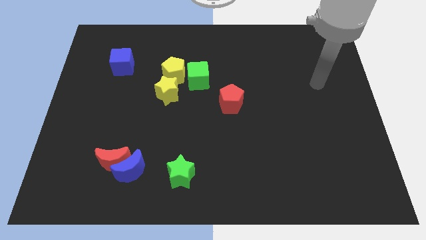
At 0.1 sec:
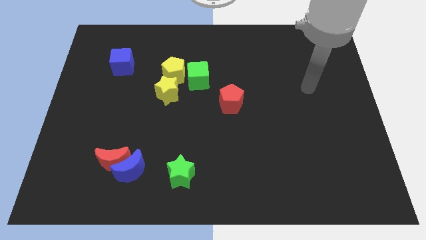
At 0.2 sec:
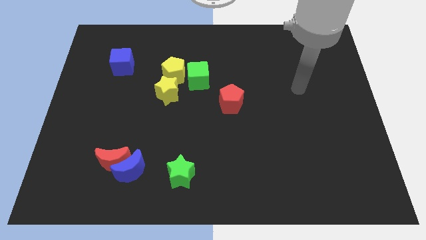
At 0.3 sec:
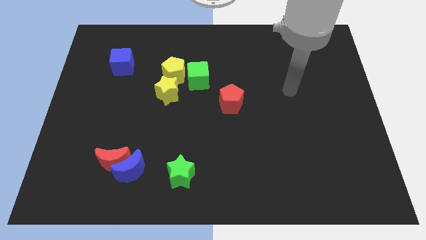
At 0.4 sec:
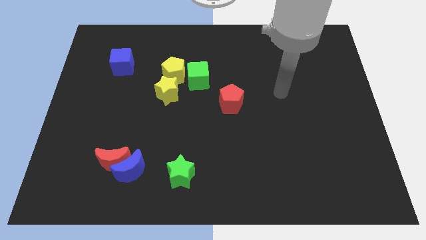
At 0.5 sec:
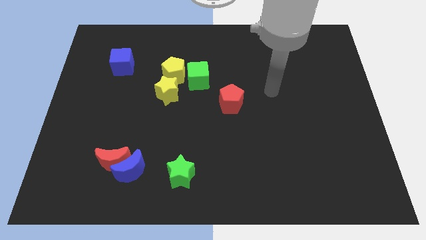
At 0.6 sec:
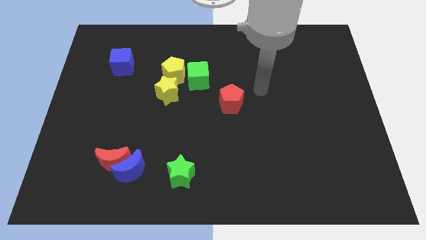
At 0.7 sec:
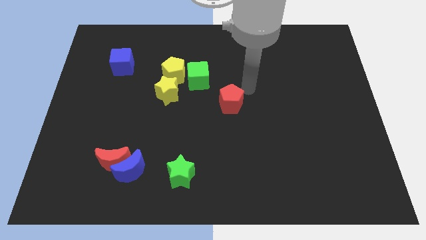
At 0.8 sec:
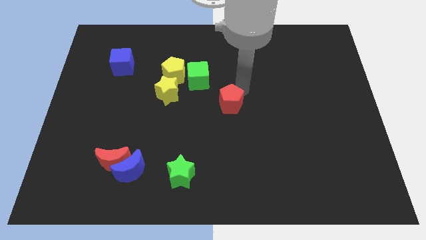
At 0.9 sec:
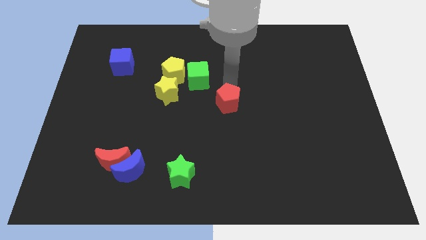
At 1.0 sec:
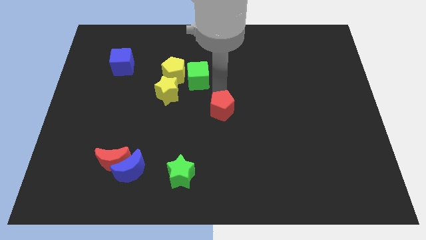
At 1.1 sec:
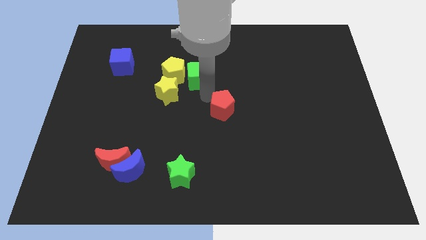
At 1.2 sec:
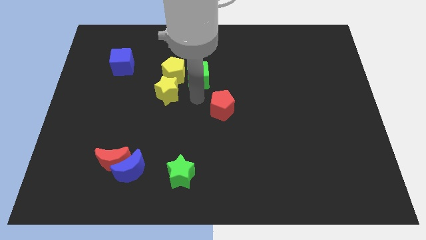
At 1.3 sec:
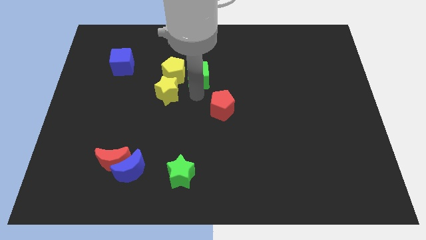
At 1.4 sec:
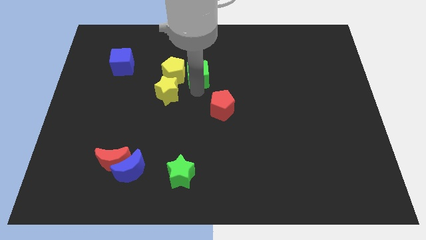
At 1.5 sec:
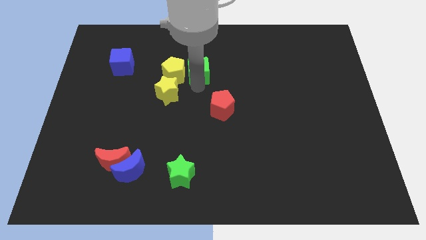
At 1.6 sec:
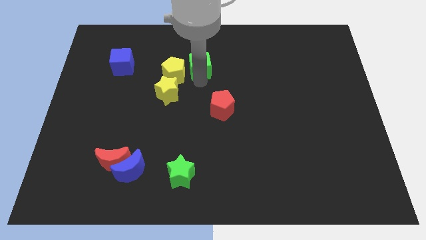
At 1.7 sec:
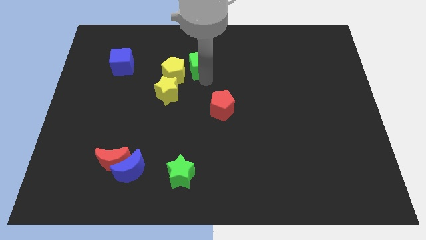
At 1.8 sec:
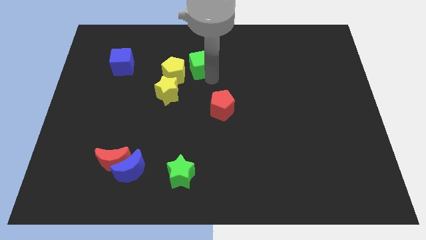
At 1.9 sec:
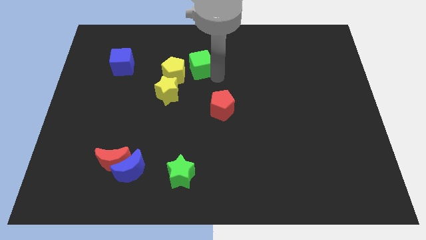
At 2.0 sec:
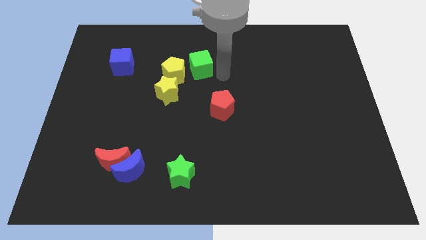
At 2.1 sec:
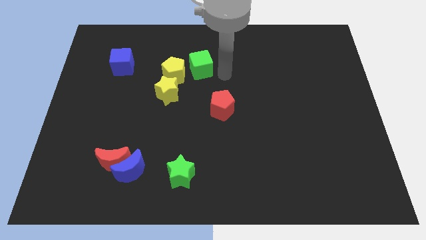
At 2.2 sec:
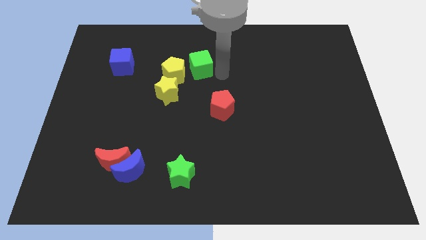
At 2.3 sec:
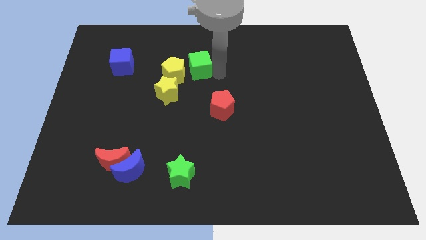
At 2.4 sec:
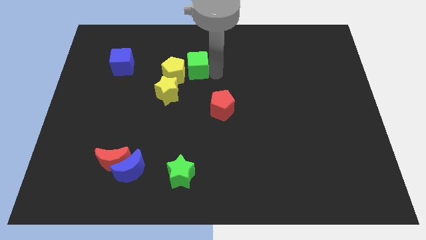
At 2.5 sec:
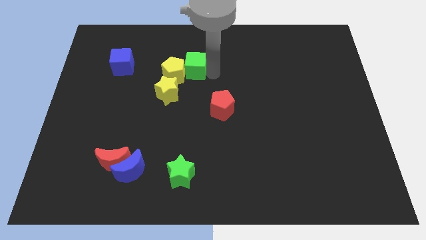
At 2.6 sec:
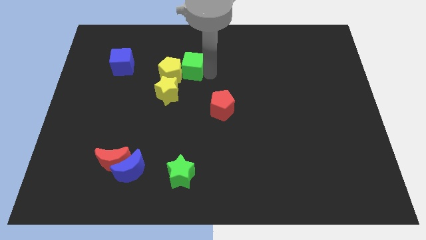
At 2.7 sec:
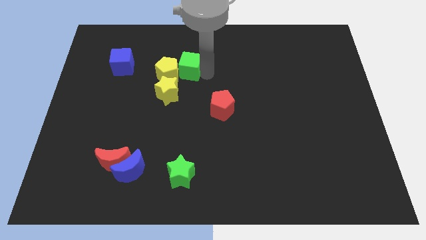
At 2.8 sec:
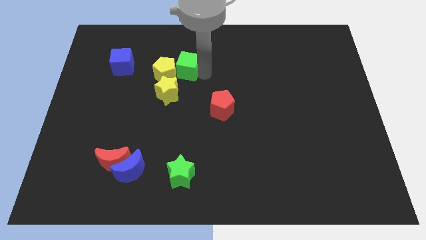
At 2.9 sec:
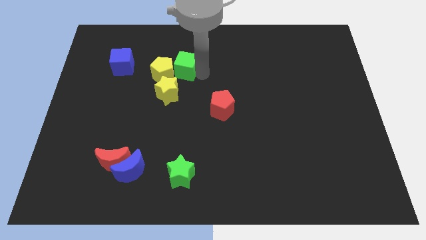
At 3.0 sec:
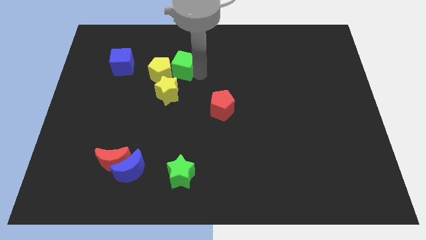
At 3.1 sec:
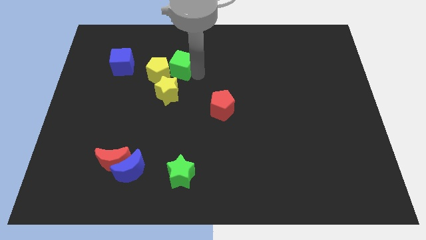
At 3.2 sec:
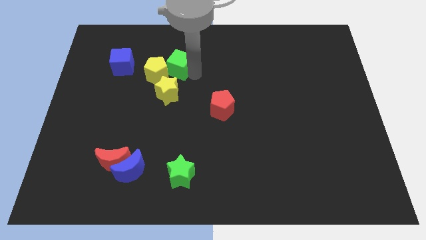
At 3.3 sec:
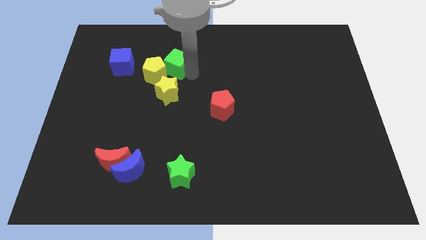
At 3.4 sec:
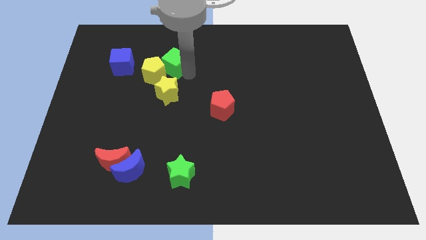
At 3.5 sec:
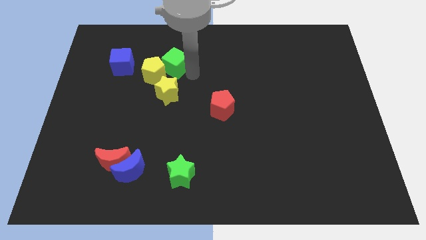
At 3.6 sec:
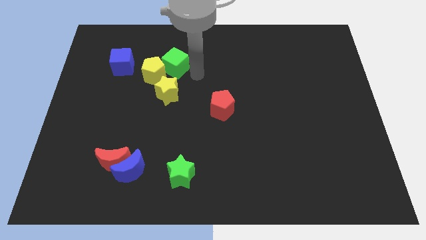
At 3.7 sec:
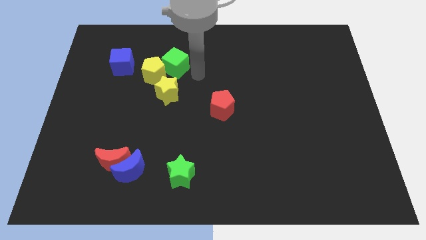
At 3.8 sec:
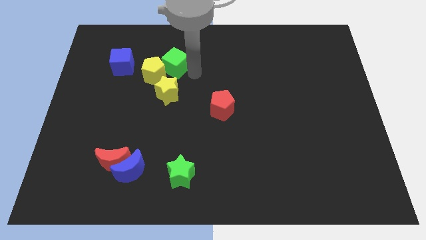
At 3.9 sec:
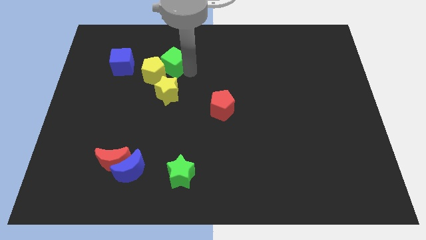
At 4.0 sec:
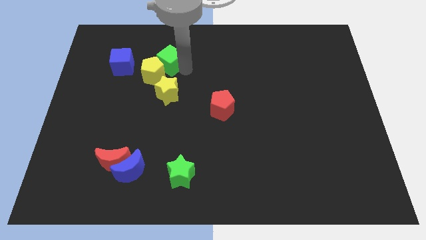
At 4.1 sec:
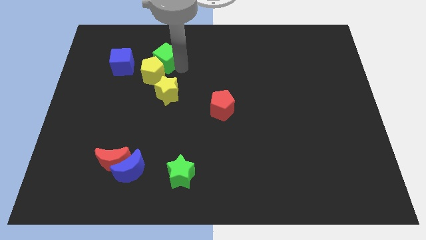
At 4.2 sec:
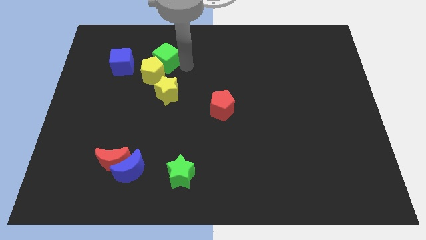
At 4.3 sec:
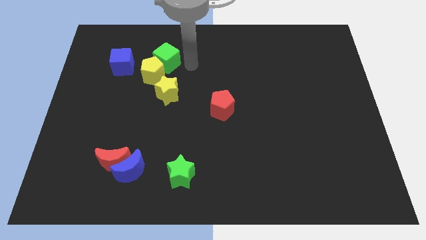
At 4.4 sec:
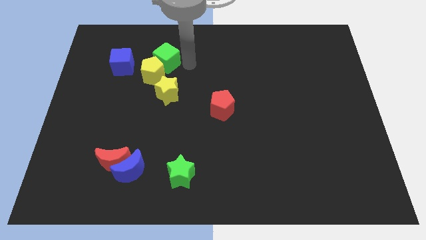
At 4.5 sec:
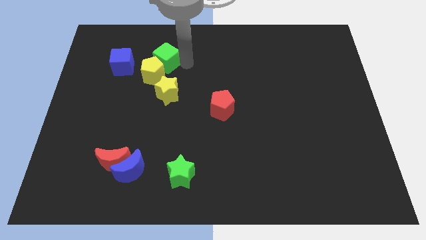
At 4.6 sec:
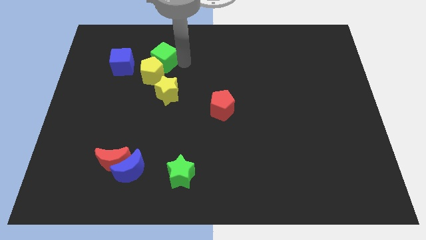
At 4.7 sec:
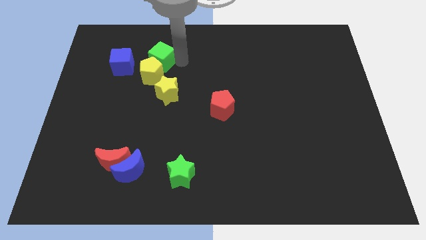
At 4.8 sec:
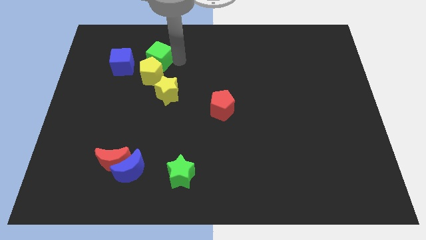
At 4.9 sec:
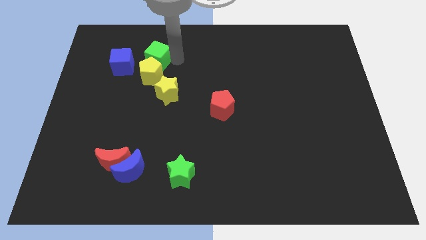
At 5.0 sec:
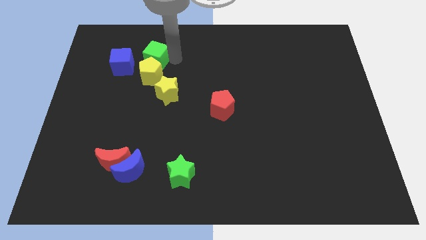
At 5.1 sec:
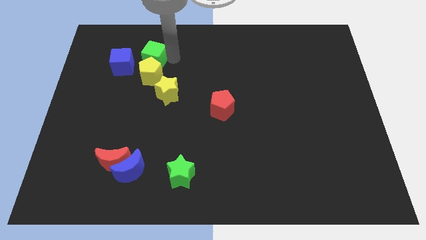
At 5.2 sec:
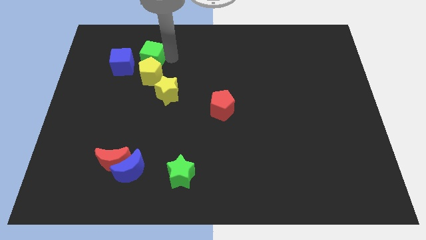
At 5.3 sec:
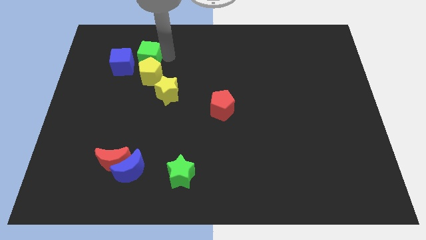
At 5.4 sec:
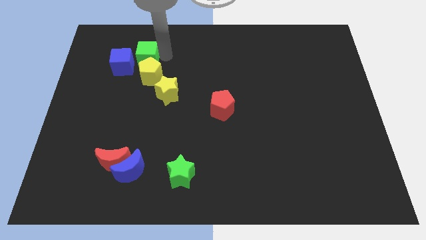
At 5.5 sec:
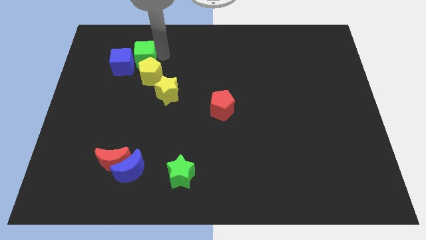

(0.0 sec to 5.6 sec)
put the green cube to the blue cube

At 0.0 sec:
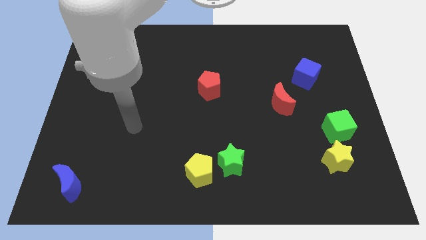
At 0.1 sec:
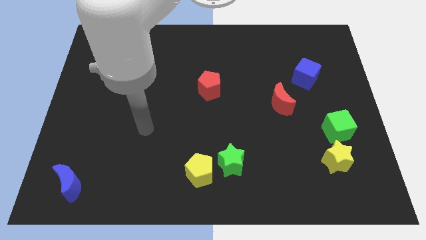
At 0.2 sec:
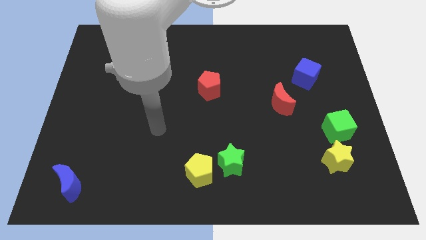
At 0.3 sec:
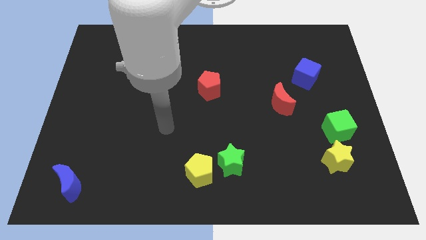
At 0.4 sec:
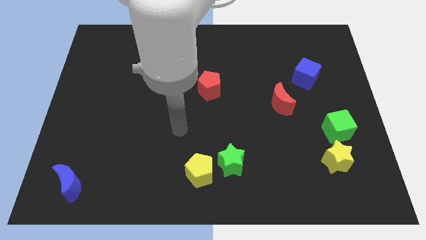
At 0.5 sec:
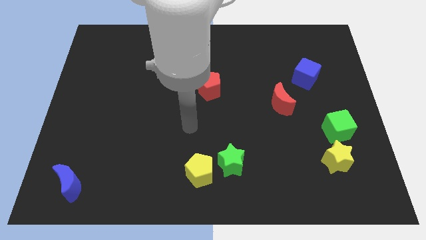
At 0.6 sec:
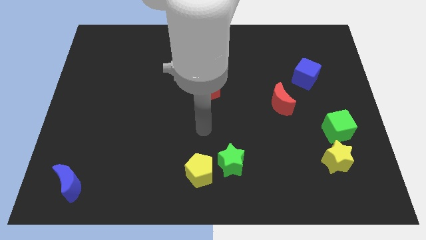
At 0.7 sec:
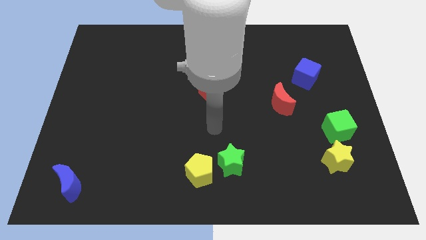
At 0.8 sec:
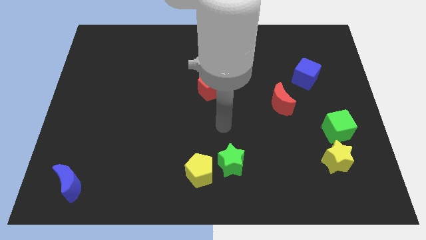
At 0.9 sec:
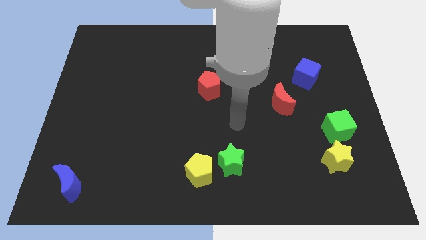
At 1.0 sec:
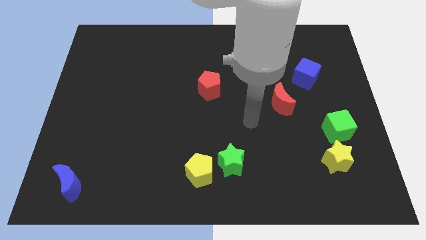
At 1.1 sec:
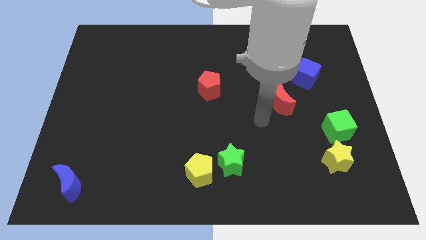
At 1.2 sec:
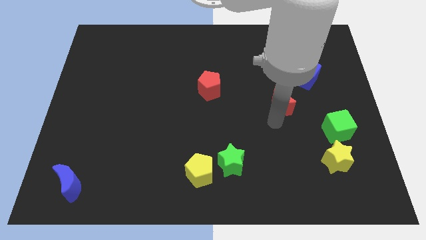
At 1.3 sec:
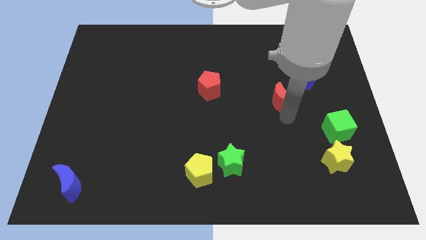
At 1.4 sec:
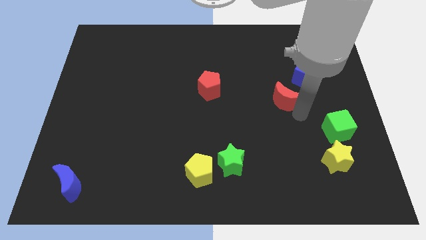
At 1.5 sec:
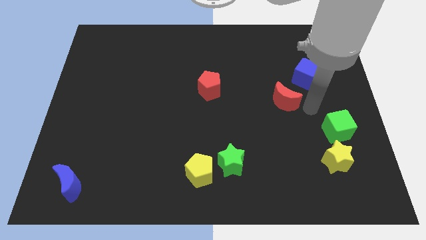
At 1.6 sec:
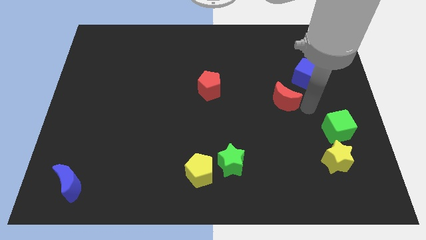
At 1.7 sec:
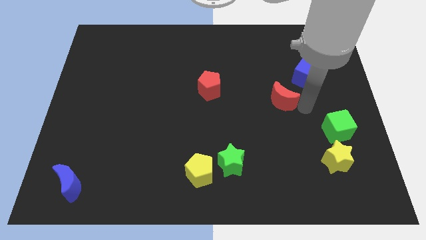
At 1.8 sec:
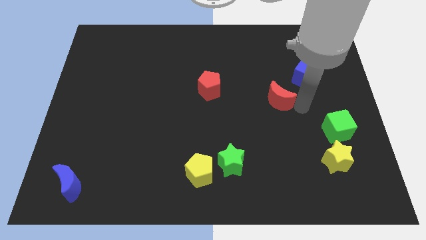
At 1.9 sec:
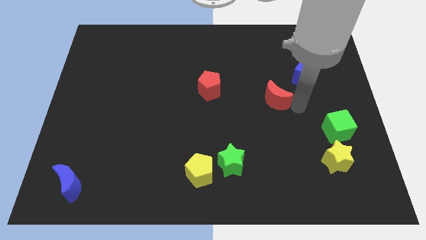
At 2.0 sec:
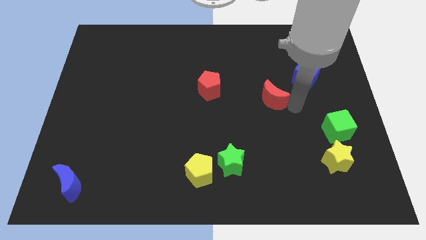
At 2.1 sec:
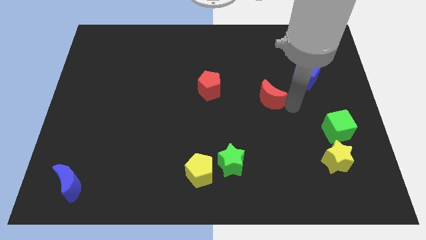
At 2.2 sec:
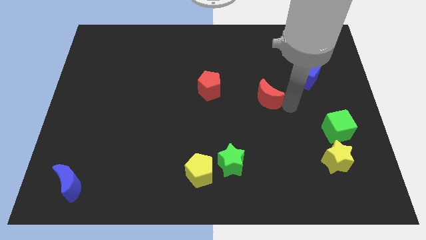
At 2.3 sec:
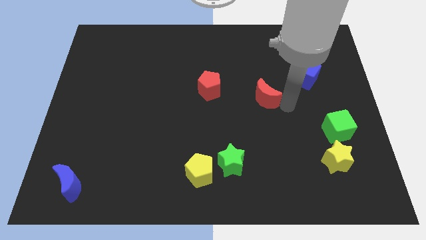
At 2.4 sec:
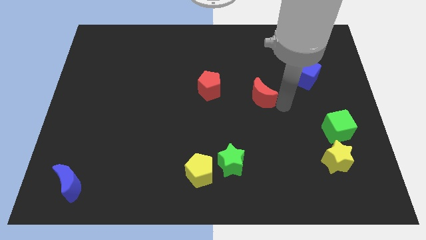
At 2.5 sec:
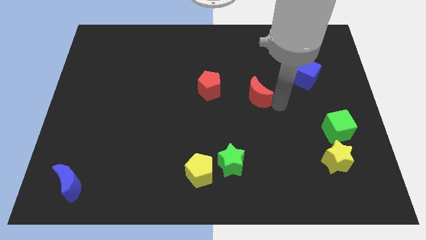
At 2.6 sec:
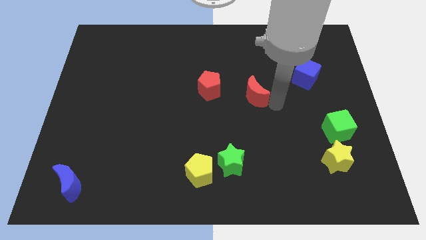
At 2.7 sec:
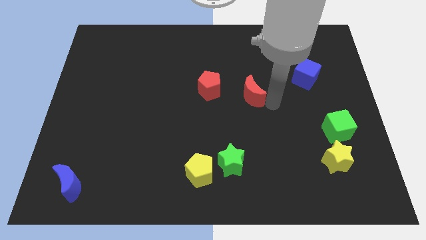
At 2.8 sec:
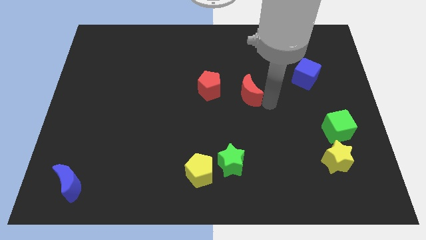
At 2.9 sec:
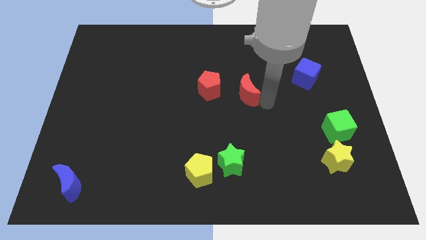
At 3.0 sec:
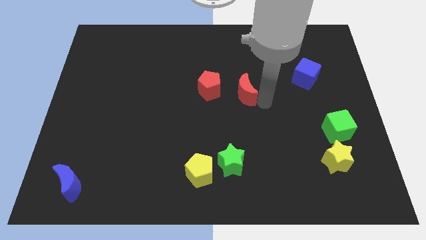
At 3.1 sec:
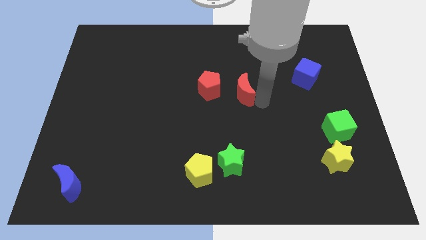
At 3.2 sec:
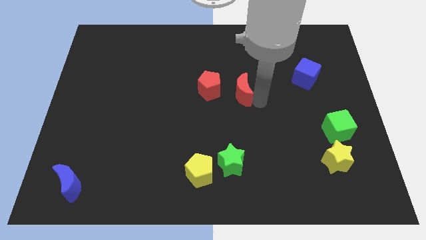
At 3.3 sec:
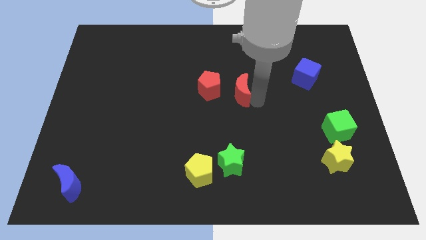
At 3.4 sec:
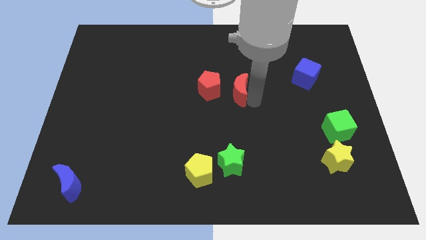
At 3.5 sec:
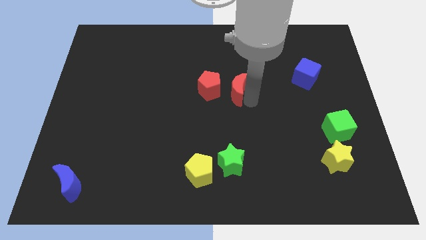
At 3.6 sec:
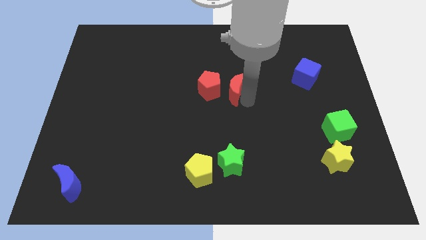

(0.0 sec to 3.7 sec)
put the red moon next to the red pentagon
